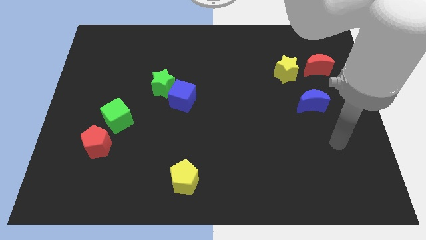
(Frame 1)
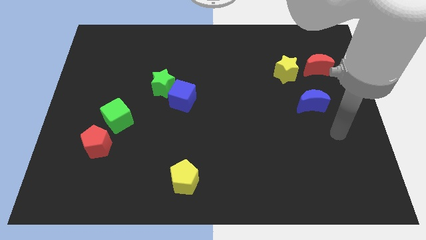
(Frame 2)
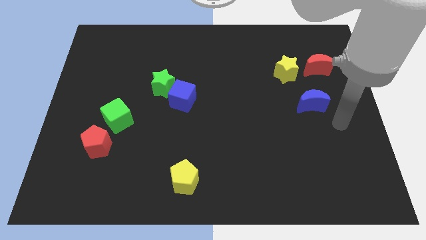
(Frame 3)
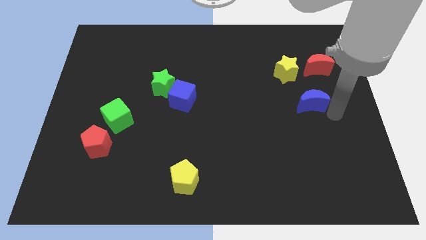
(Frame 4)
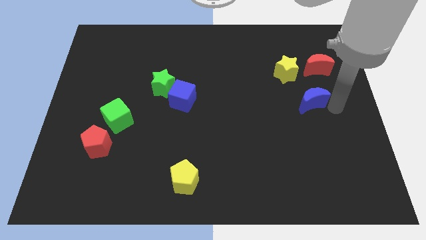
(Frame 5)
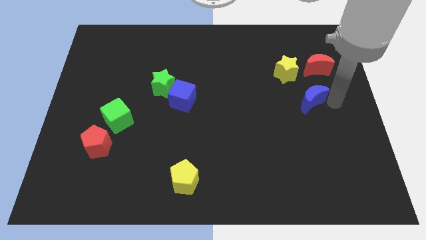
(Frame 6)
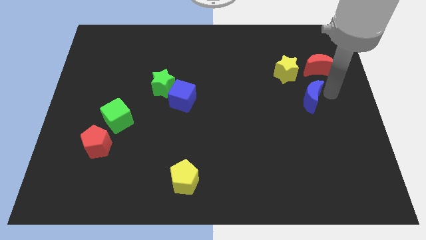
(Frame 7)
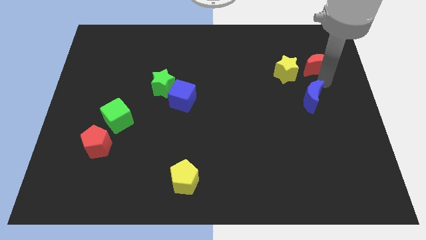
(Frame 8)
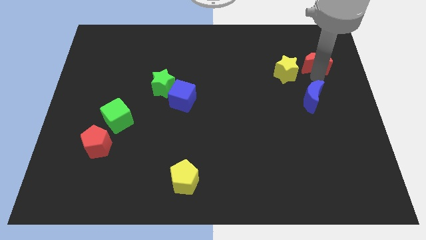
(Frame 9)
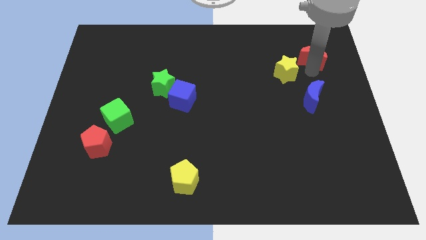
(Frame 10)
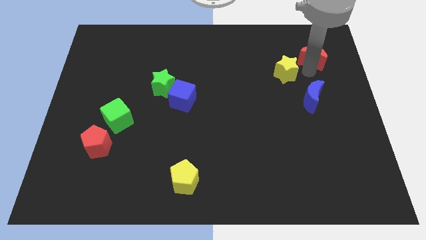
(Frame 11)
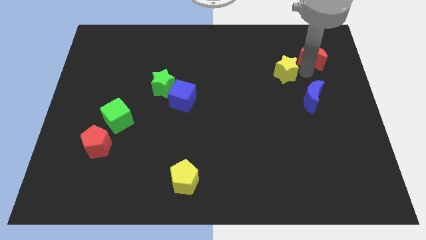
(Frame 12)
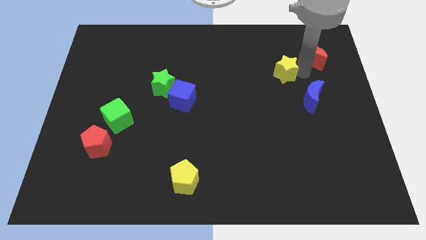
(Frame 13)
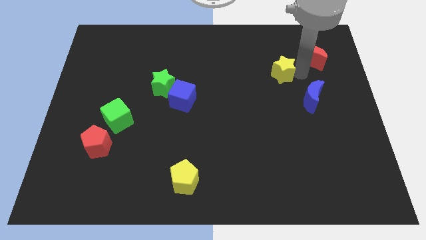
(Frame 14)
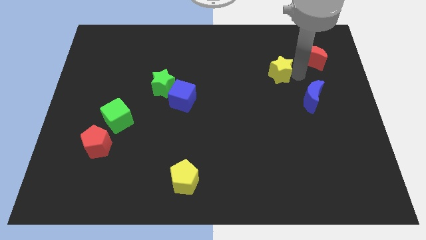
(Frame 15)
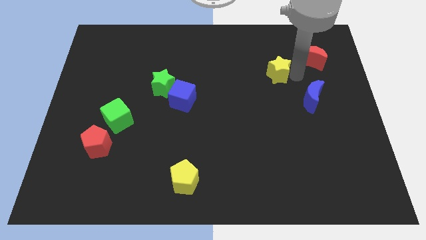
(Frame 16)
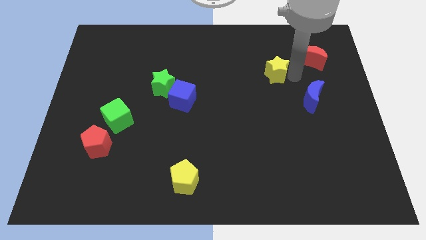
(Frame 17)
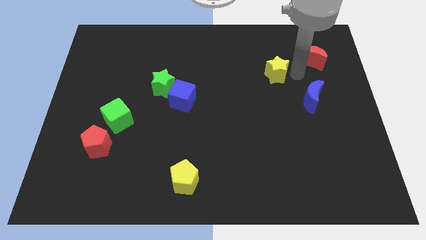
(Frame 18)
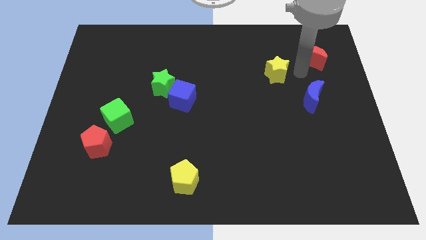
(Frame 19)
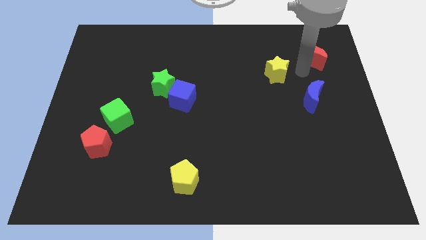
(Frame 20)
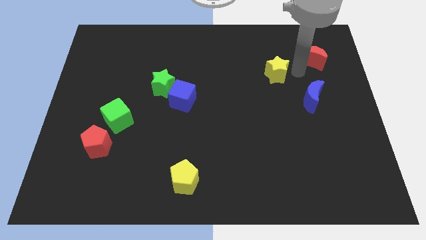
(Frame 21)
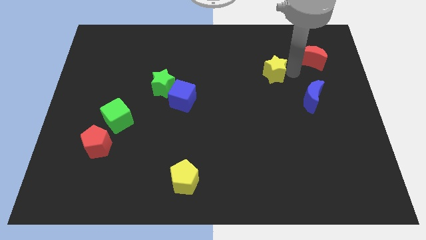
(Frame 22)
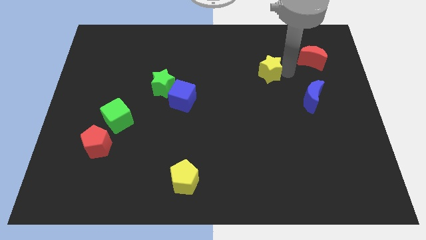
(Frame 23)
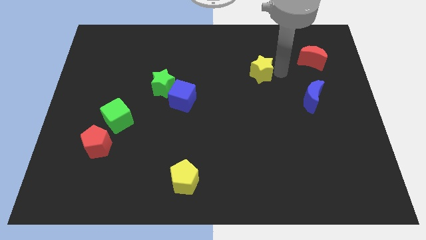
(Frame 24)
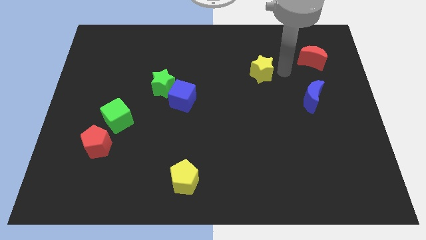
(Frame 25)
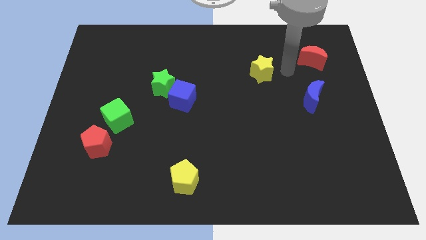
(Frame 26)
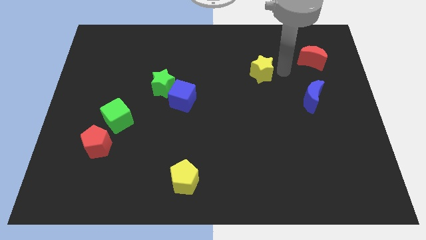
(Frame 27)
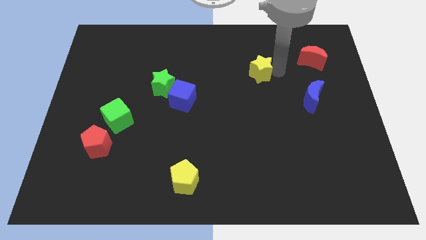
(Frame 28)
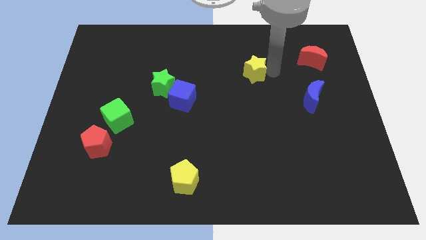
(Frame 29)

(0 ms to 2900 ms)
push the yellow star a little to the left

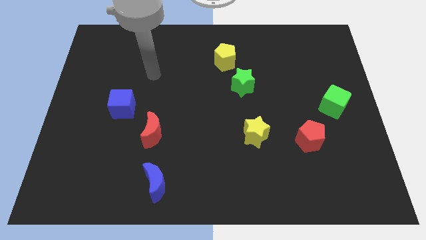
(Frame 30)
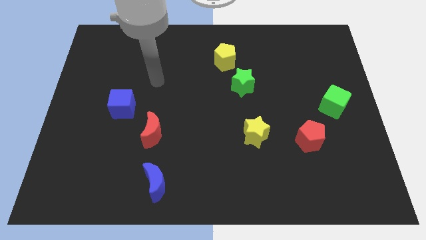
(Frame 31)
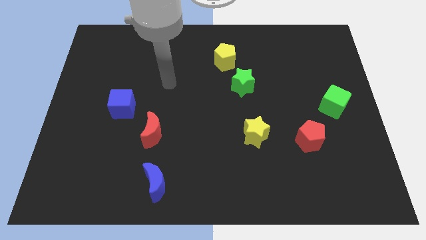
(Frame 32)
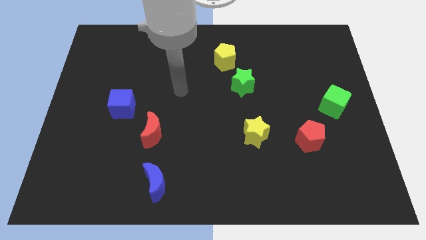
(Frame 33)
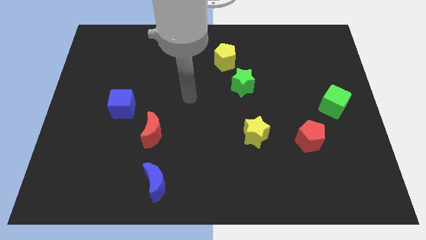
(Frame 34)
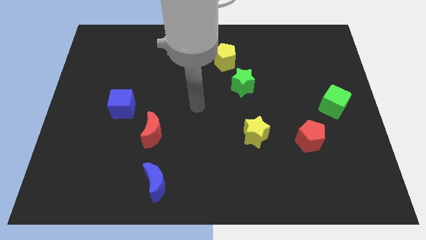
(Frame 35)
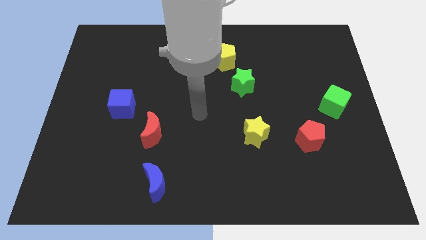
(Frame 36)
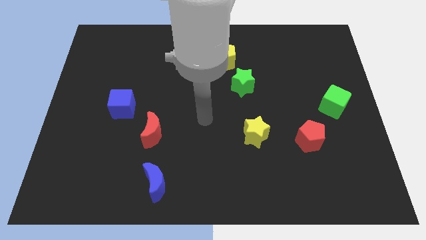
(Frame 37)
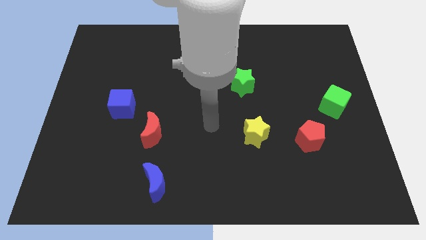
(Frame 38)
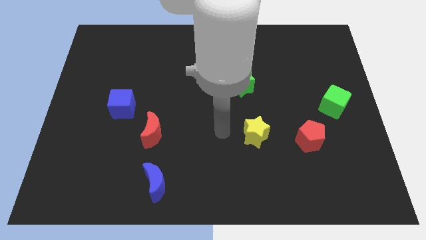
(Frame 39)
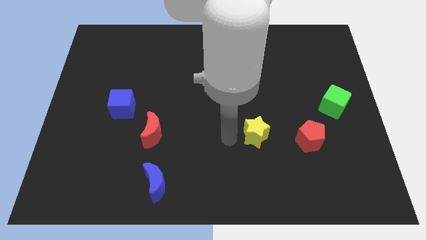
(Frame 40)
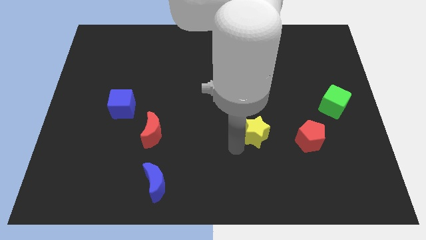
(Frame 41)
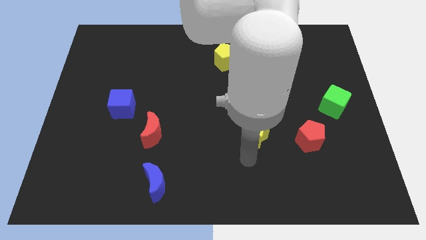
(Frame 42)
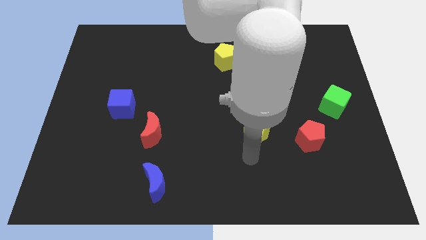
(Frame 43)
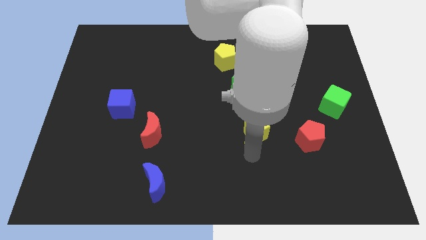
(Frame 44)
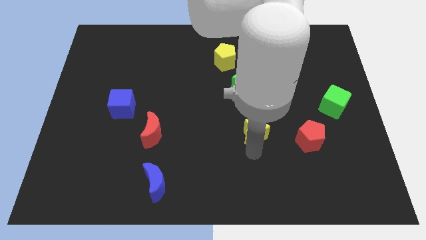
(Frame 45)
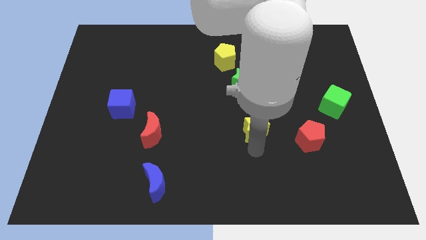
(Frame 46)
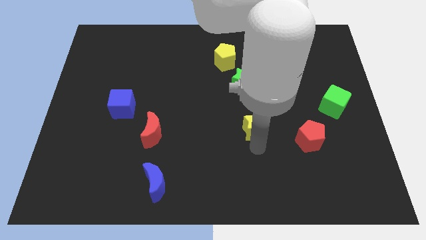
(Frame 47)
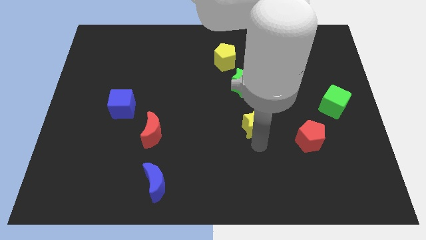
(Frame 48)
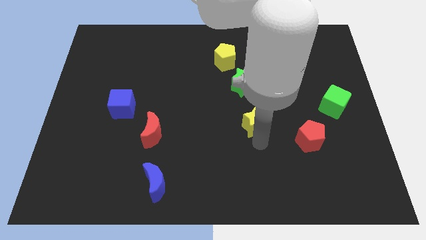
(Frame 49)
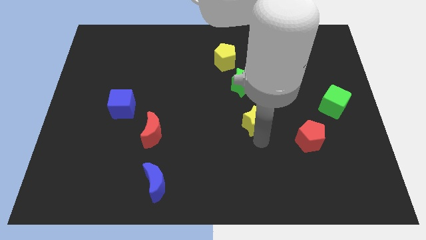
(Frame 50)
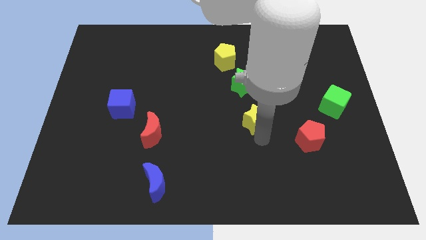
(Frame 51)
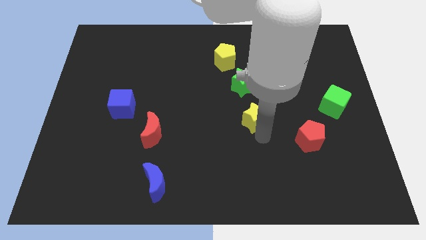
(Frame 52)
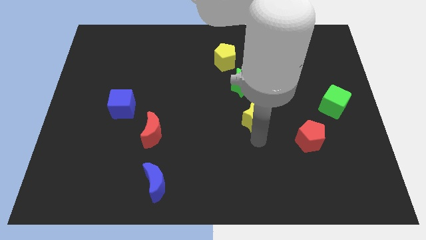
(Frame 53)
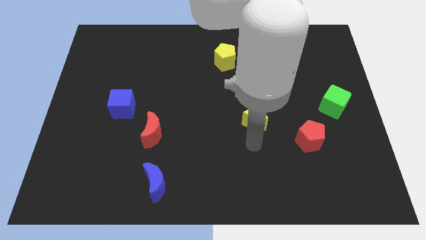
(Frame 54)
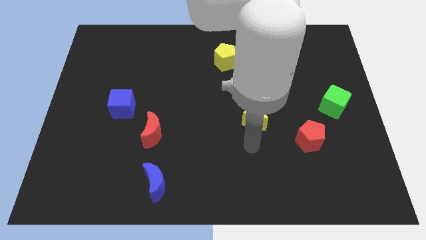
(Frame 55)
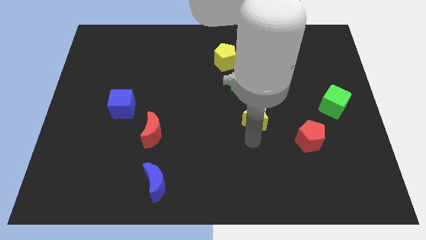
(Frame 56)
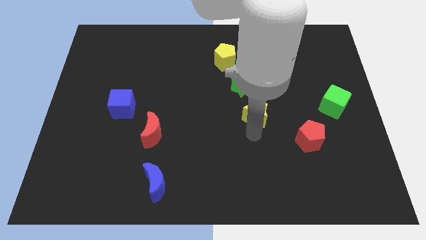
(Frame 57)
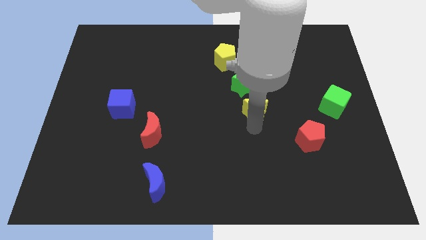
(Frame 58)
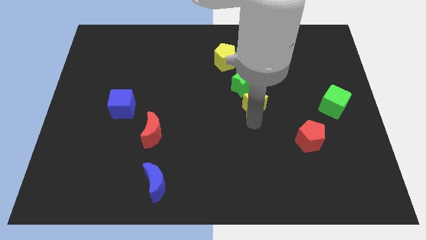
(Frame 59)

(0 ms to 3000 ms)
slightly slide the yellow star up

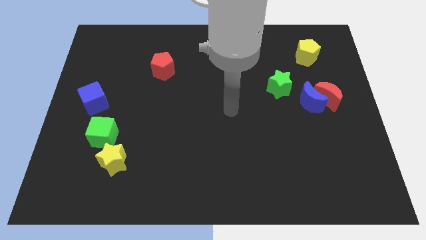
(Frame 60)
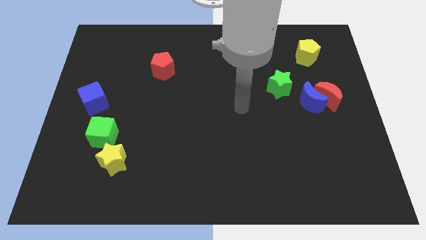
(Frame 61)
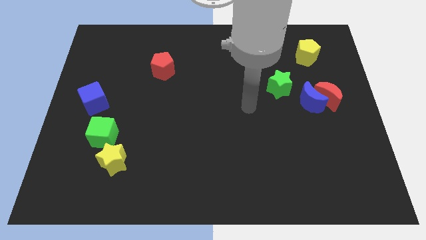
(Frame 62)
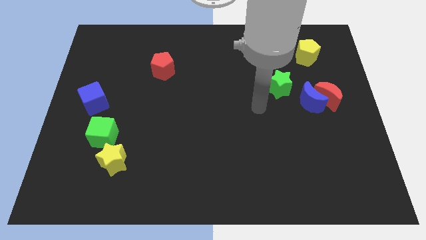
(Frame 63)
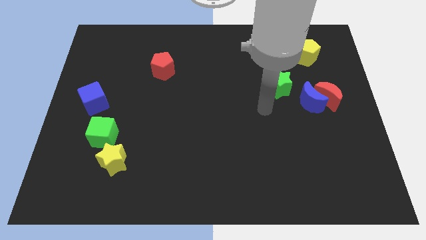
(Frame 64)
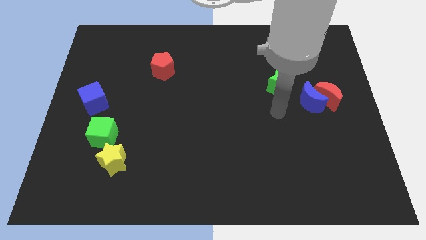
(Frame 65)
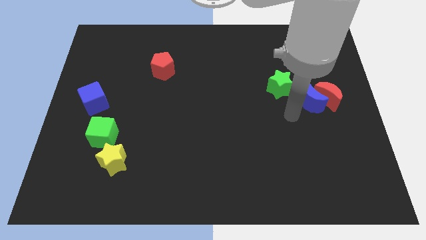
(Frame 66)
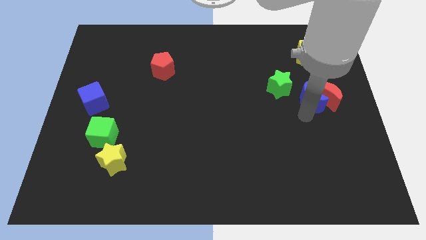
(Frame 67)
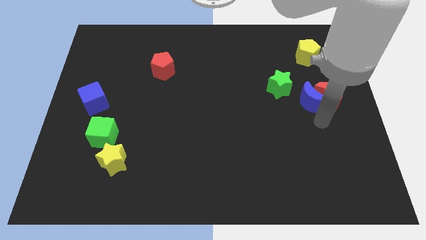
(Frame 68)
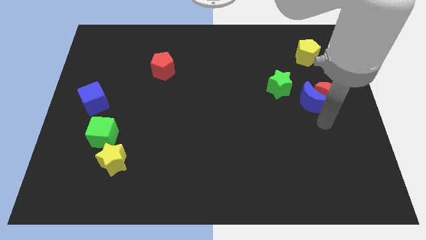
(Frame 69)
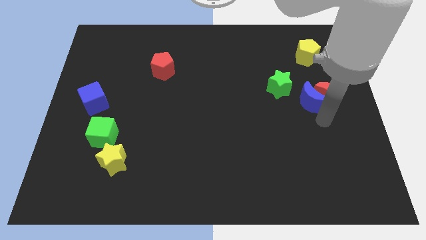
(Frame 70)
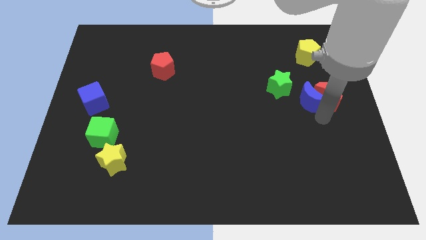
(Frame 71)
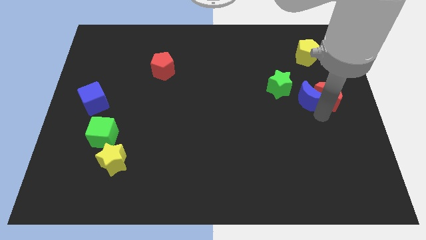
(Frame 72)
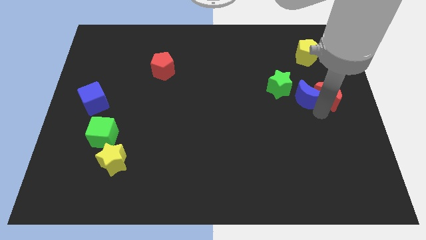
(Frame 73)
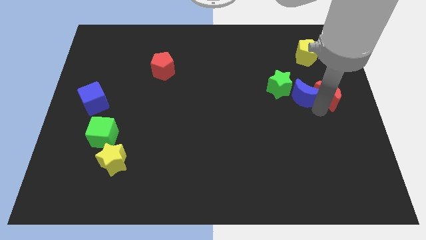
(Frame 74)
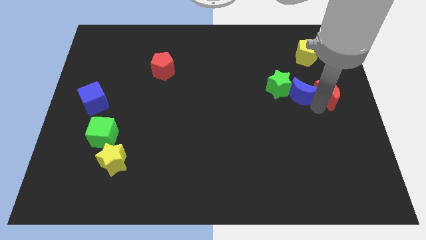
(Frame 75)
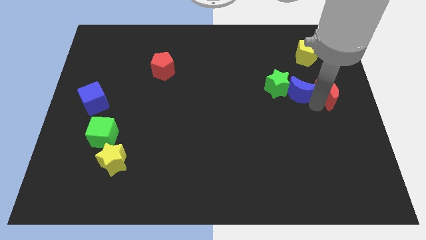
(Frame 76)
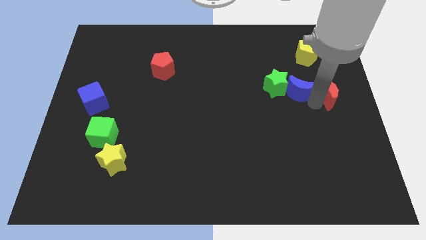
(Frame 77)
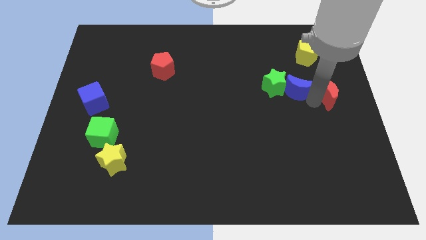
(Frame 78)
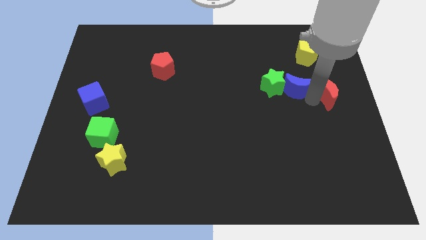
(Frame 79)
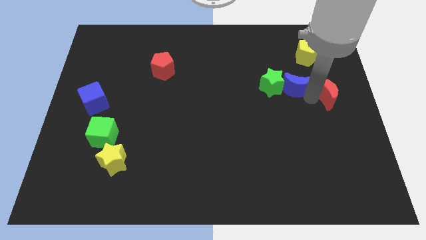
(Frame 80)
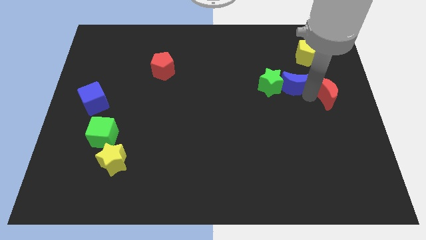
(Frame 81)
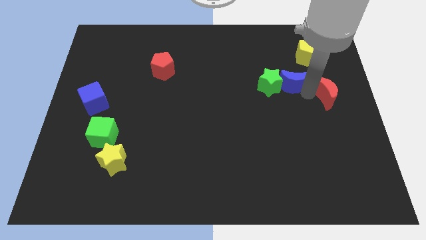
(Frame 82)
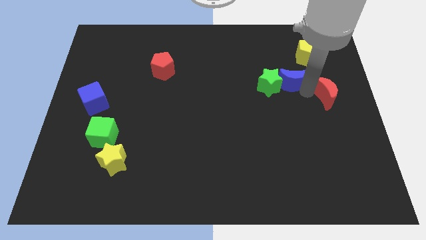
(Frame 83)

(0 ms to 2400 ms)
push the blue moon upwards and then to the left slightly
